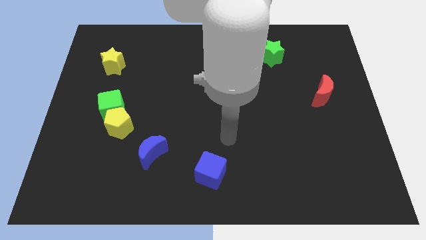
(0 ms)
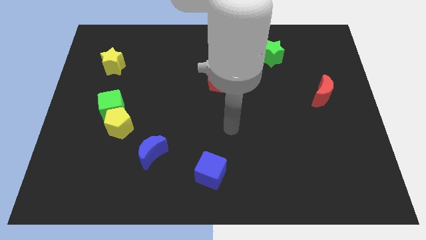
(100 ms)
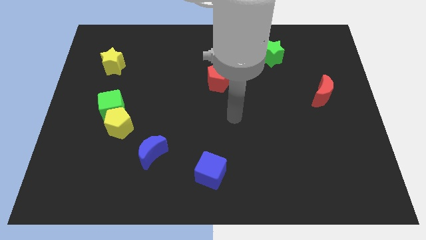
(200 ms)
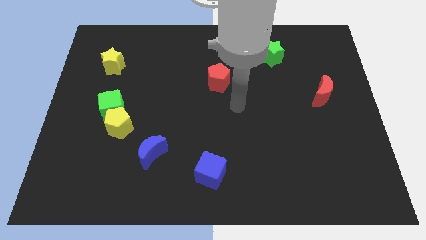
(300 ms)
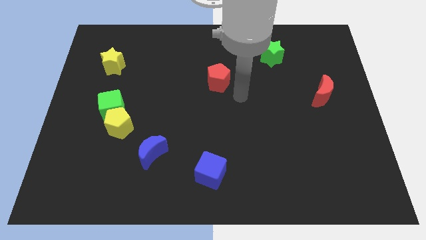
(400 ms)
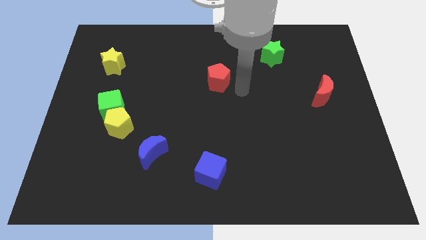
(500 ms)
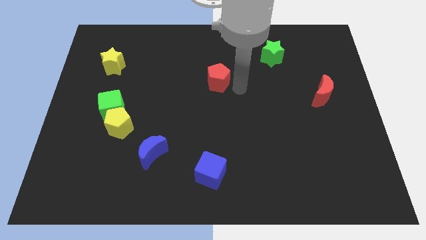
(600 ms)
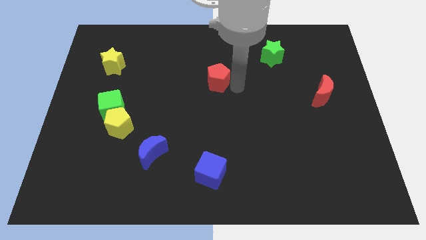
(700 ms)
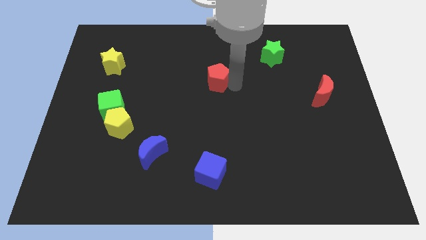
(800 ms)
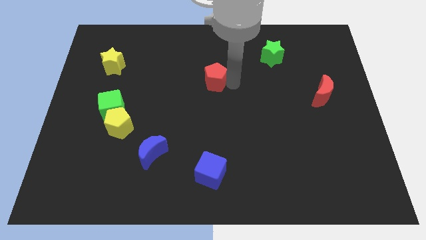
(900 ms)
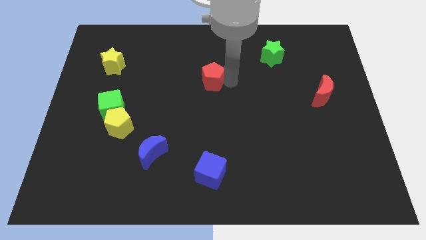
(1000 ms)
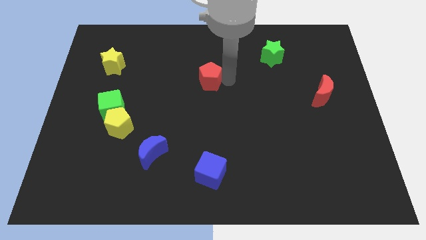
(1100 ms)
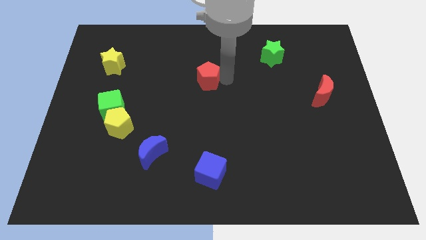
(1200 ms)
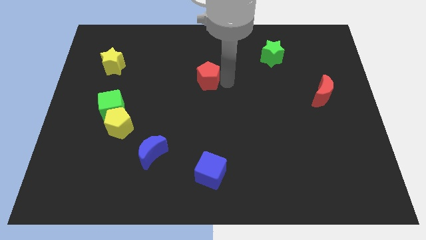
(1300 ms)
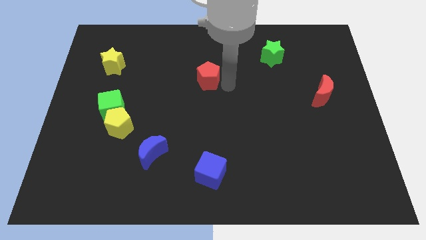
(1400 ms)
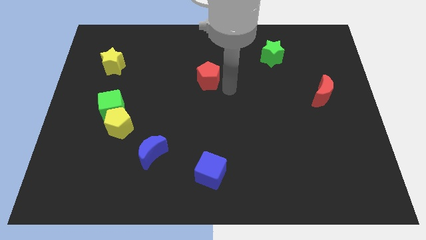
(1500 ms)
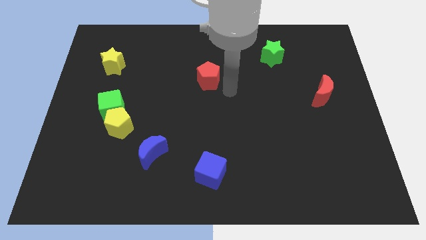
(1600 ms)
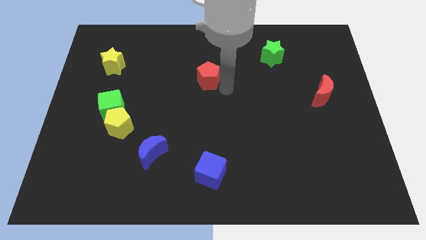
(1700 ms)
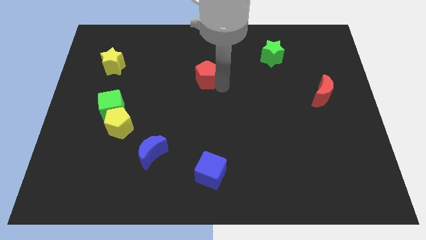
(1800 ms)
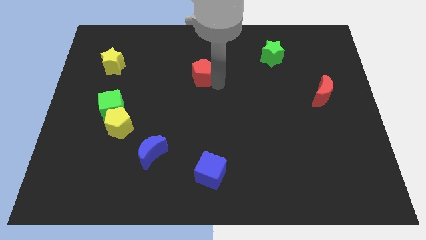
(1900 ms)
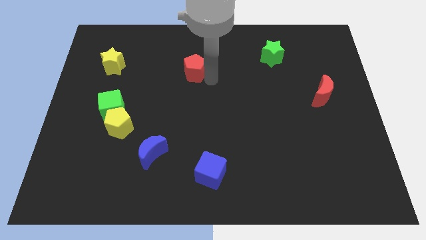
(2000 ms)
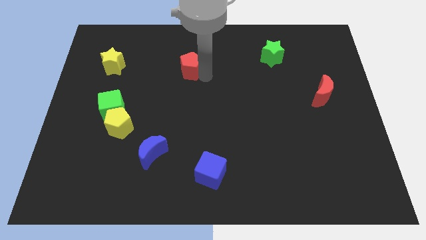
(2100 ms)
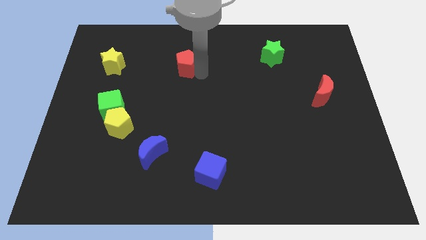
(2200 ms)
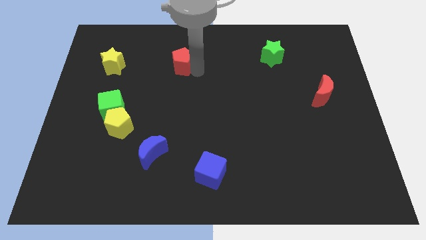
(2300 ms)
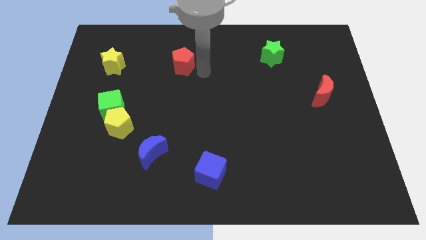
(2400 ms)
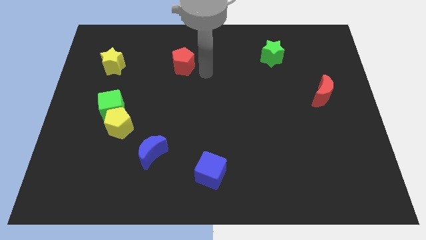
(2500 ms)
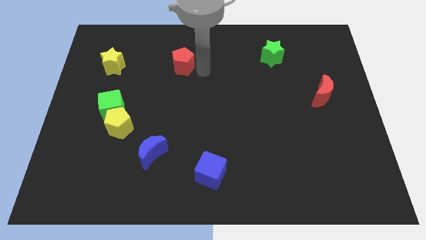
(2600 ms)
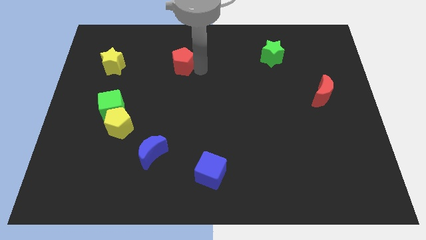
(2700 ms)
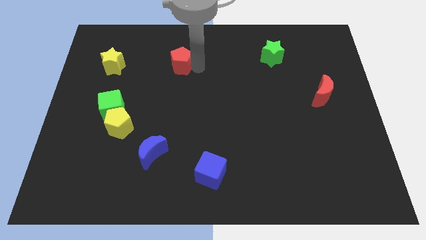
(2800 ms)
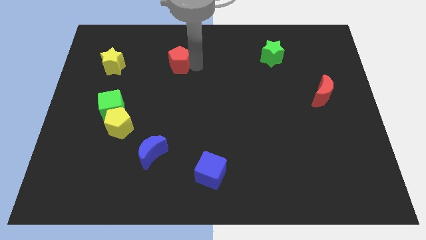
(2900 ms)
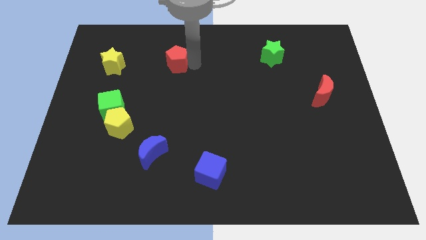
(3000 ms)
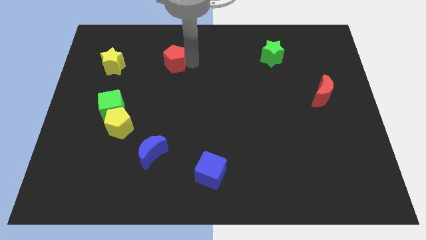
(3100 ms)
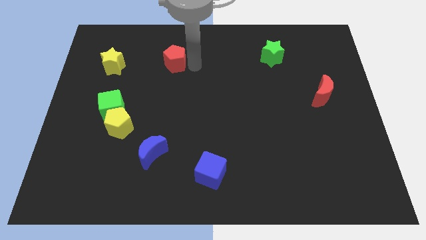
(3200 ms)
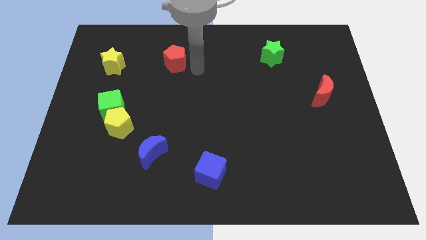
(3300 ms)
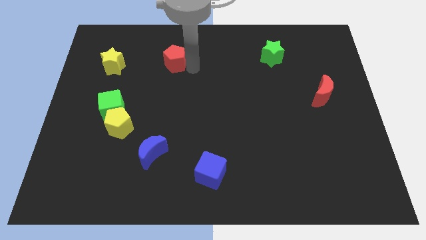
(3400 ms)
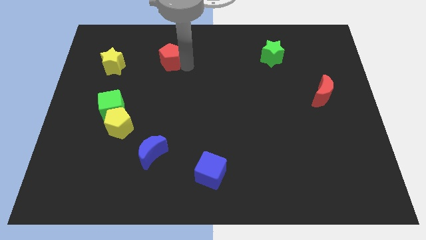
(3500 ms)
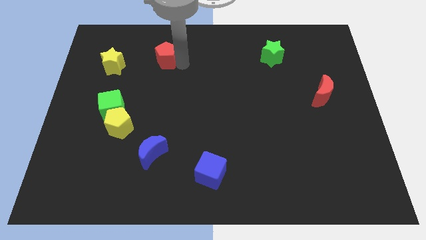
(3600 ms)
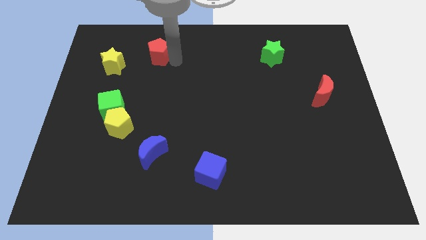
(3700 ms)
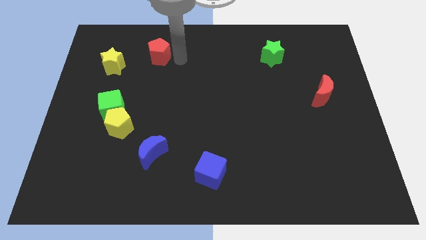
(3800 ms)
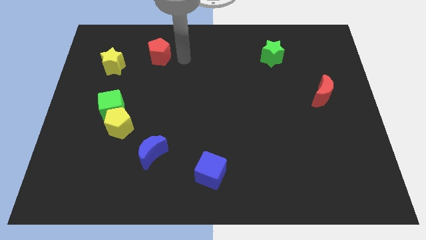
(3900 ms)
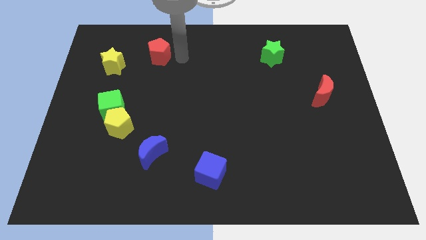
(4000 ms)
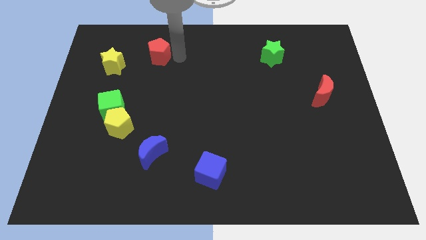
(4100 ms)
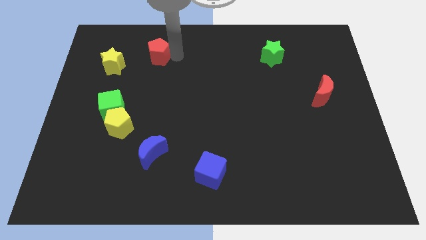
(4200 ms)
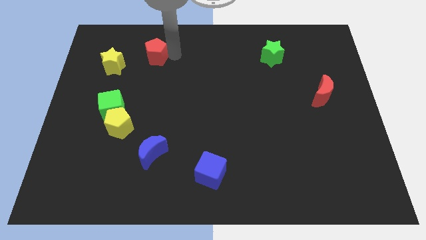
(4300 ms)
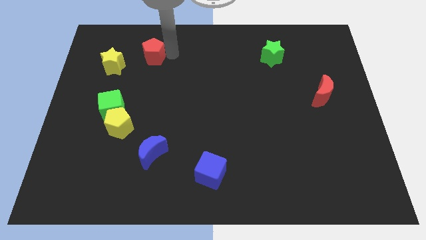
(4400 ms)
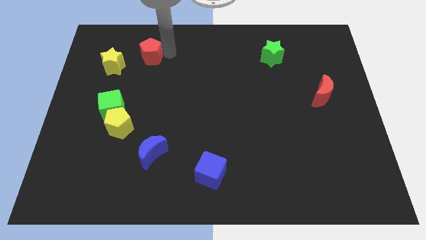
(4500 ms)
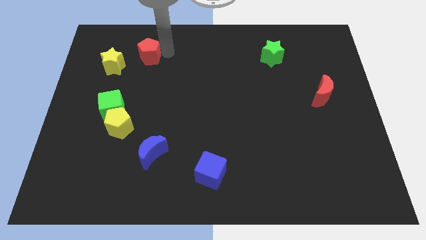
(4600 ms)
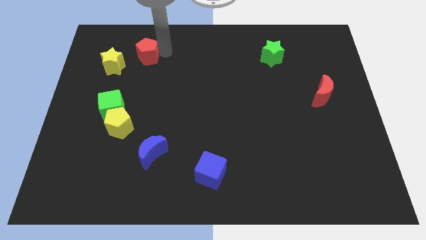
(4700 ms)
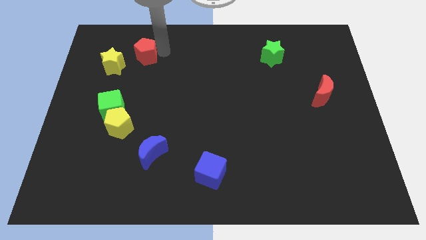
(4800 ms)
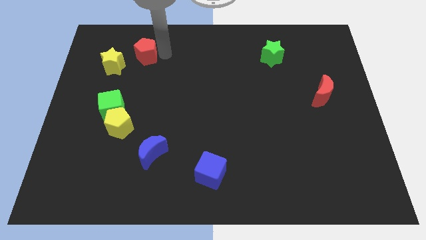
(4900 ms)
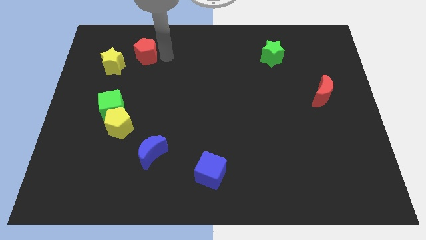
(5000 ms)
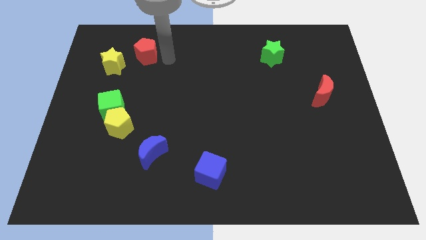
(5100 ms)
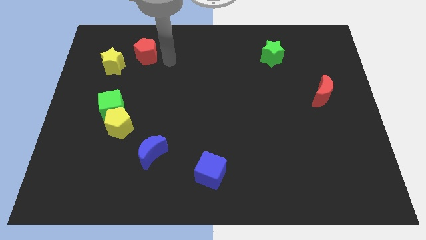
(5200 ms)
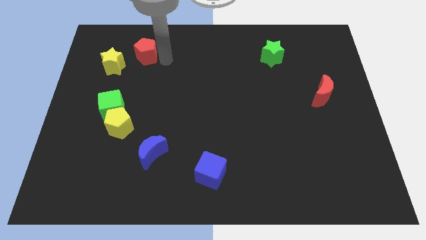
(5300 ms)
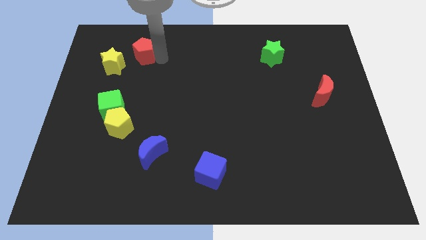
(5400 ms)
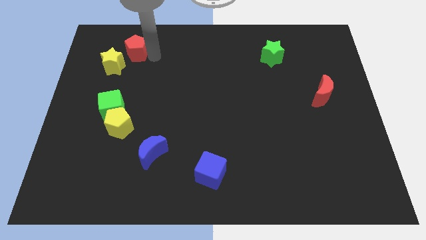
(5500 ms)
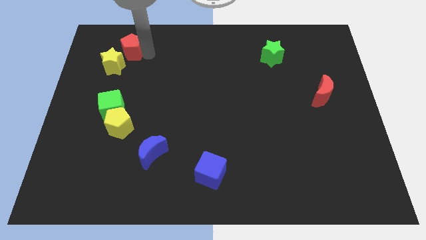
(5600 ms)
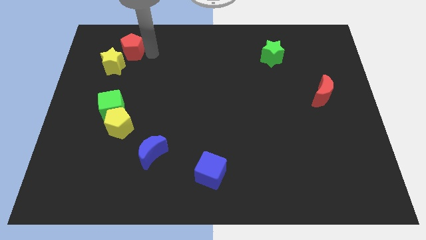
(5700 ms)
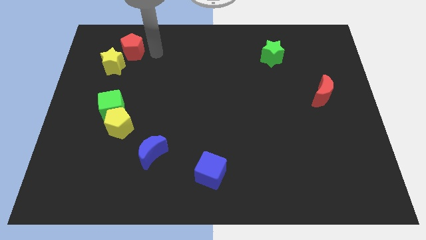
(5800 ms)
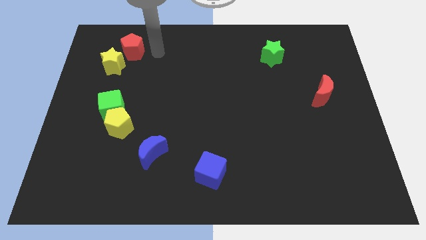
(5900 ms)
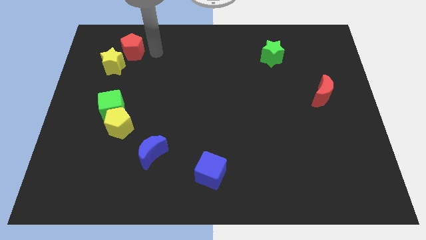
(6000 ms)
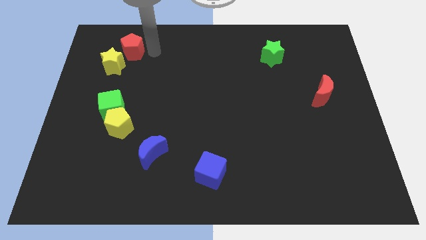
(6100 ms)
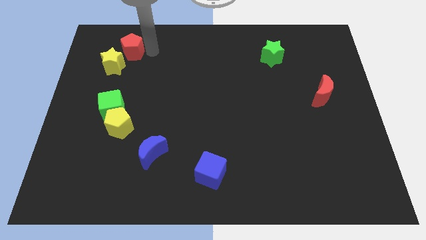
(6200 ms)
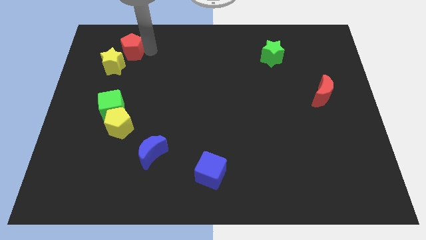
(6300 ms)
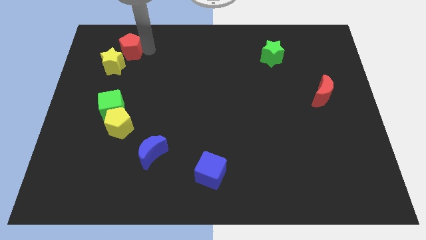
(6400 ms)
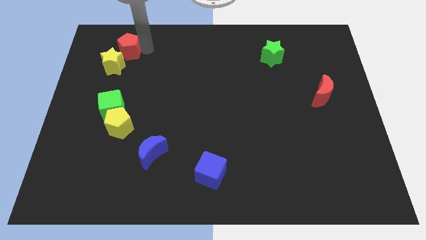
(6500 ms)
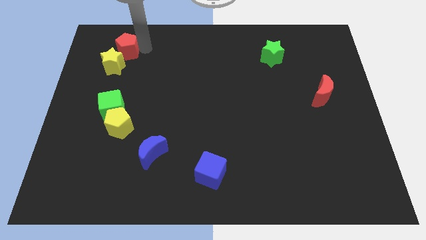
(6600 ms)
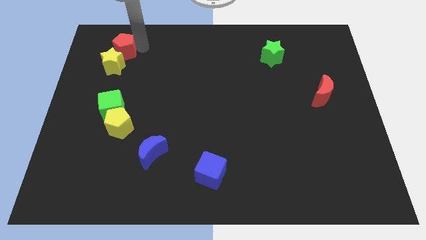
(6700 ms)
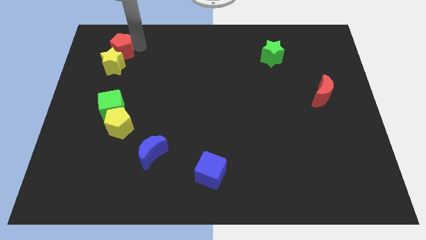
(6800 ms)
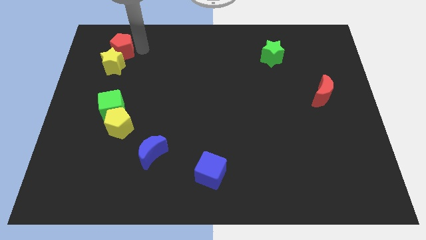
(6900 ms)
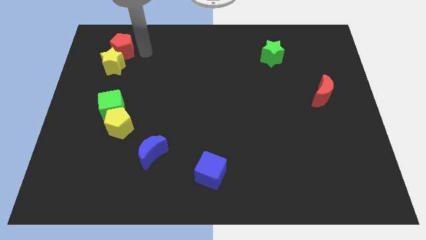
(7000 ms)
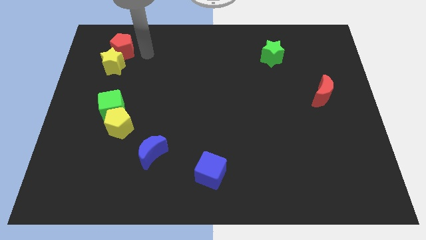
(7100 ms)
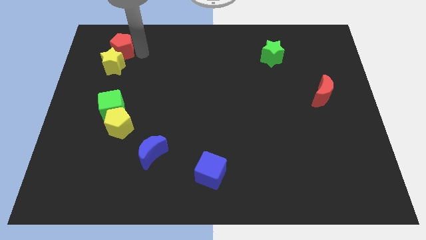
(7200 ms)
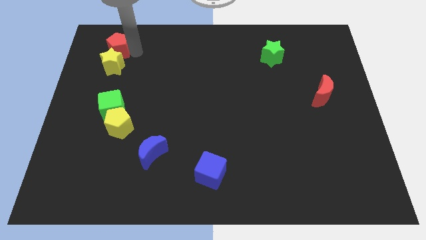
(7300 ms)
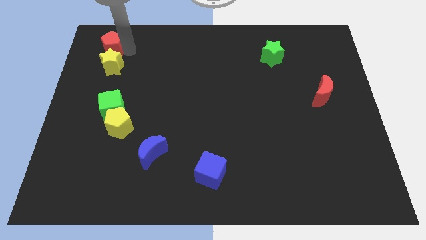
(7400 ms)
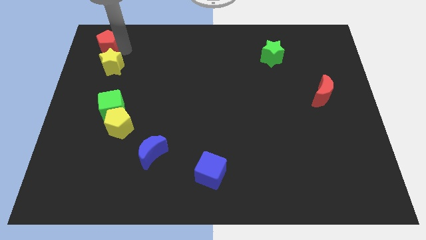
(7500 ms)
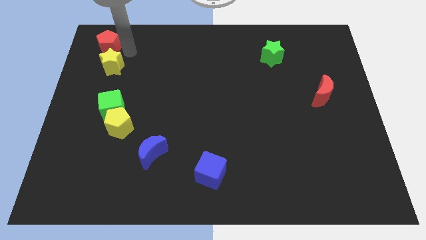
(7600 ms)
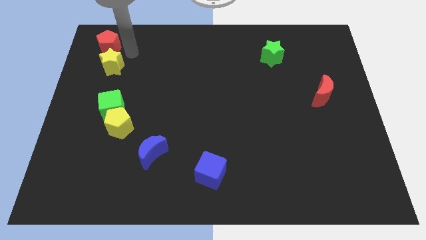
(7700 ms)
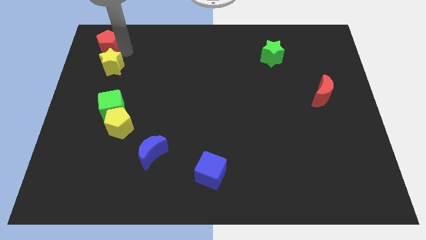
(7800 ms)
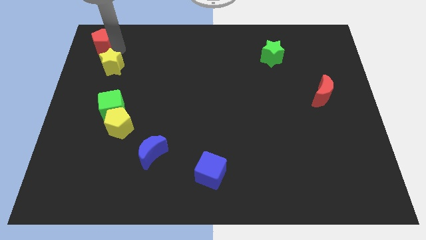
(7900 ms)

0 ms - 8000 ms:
push the red pentagon to the upper left corner
